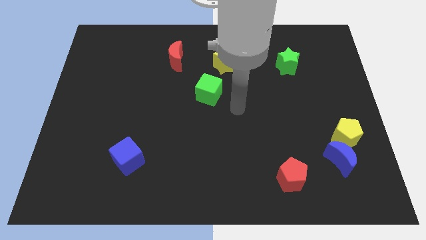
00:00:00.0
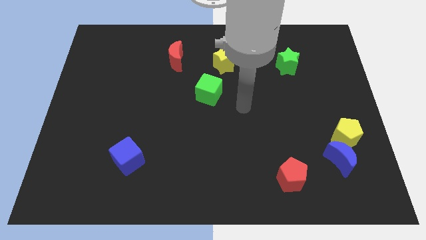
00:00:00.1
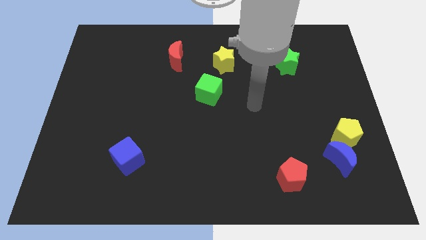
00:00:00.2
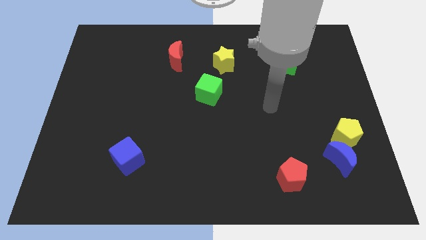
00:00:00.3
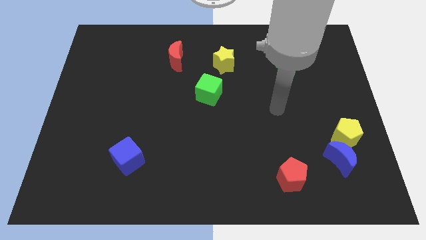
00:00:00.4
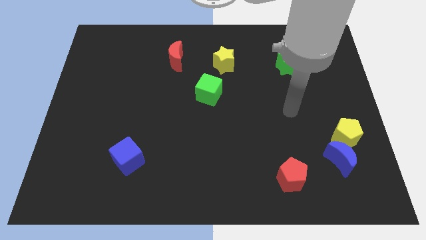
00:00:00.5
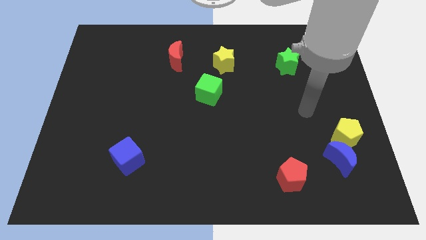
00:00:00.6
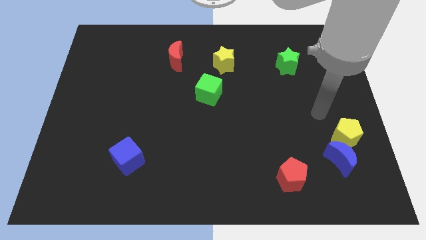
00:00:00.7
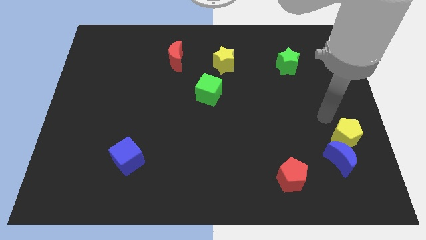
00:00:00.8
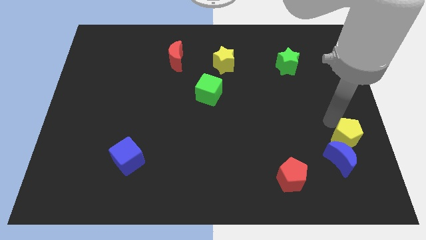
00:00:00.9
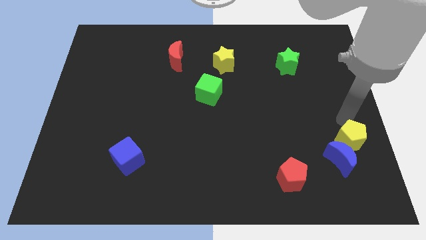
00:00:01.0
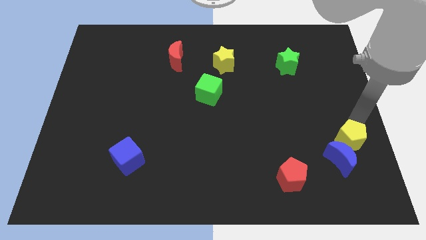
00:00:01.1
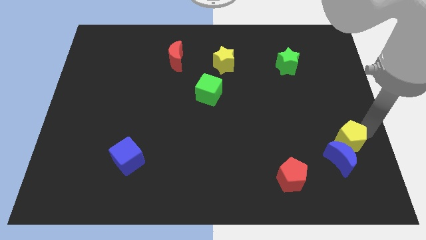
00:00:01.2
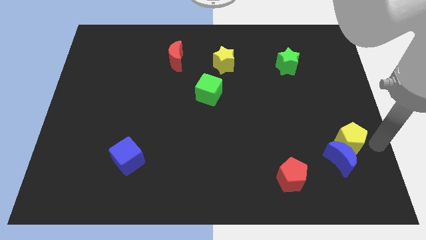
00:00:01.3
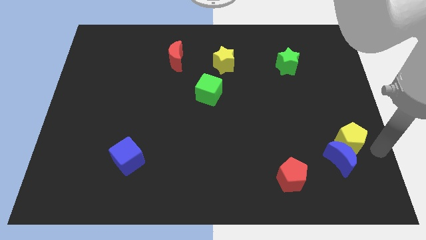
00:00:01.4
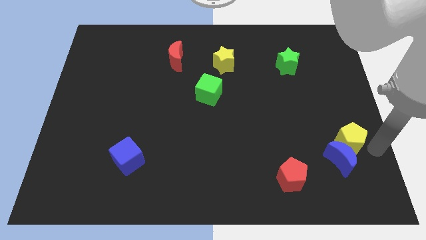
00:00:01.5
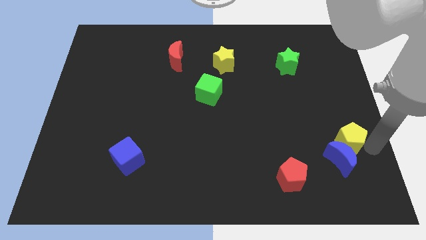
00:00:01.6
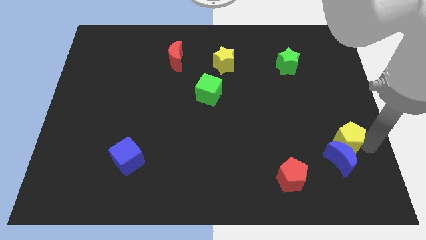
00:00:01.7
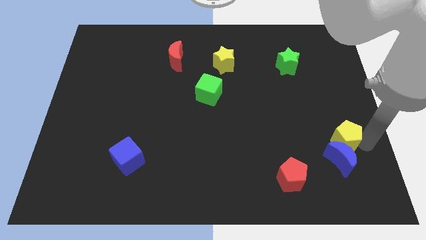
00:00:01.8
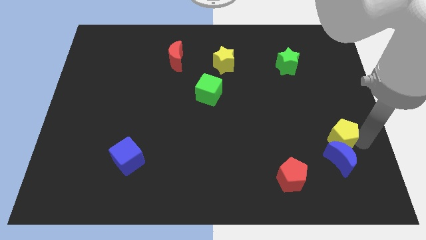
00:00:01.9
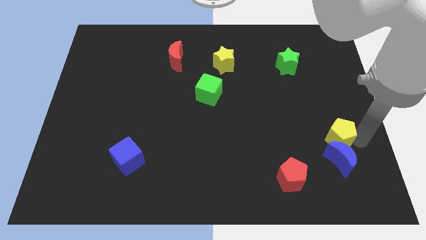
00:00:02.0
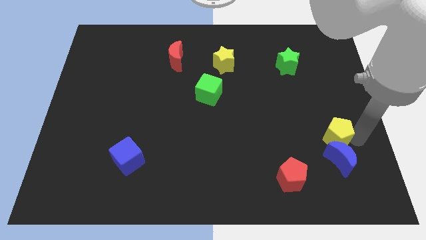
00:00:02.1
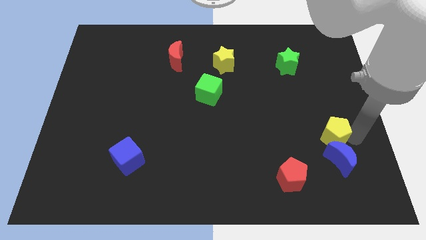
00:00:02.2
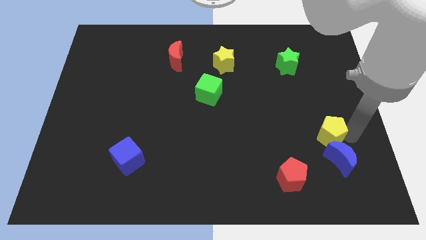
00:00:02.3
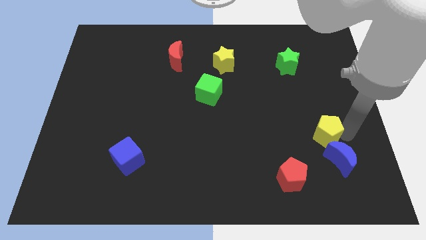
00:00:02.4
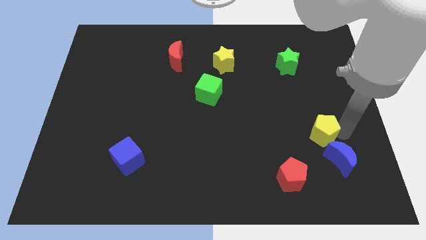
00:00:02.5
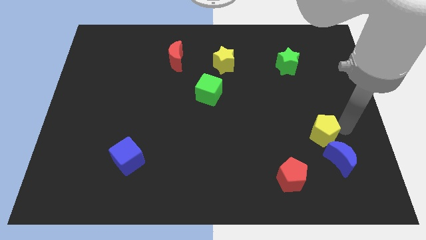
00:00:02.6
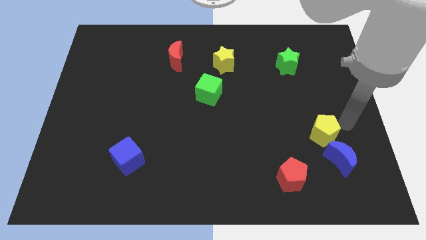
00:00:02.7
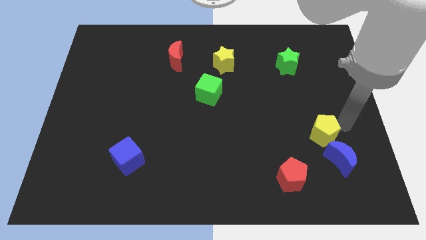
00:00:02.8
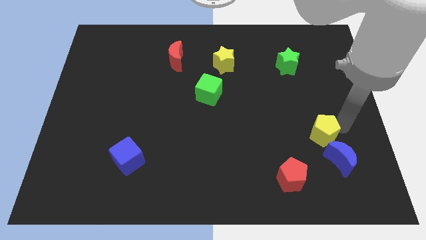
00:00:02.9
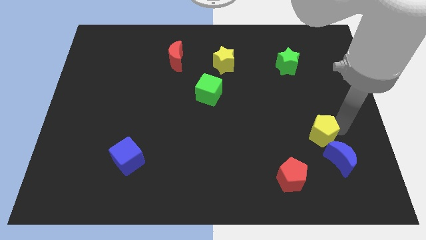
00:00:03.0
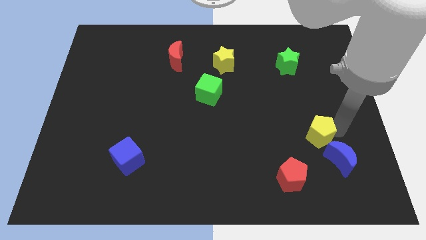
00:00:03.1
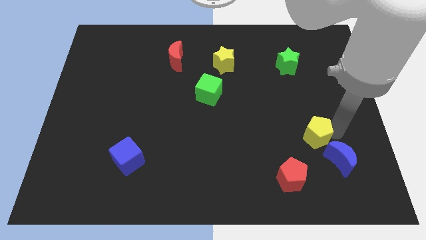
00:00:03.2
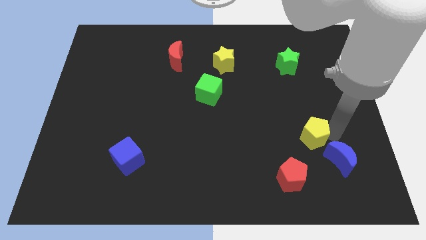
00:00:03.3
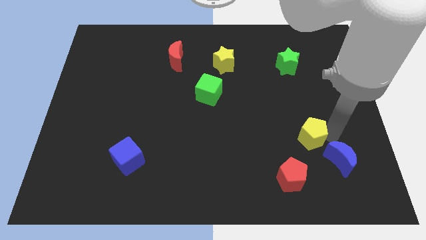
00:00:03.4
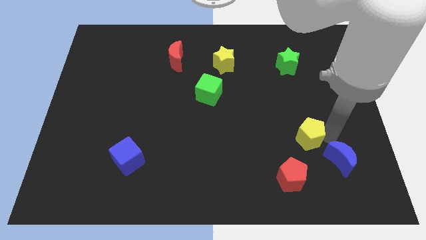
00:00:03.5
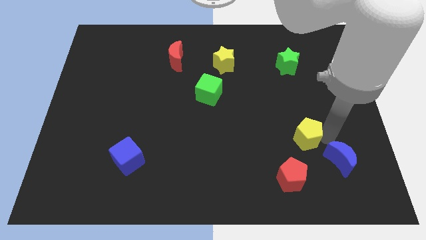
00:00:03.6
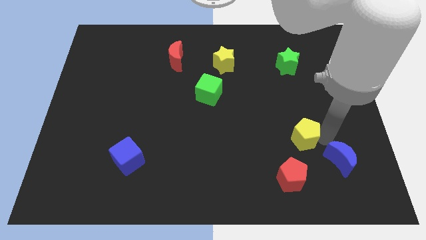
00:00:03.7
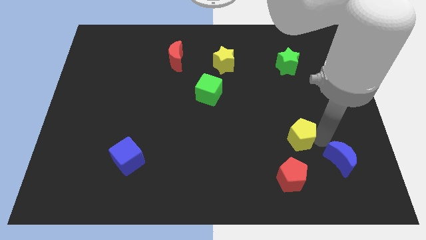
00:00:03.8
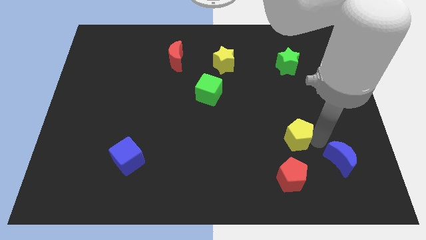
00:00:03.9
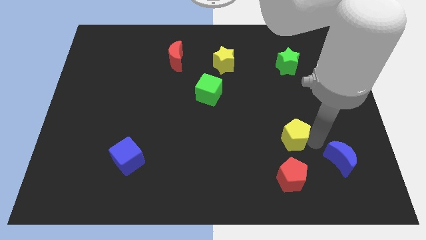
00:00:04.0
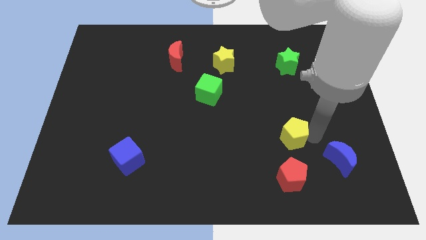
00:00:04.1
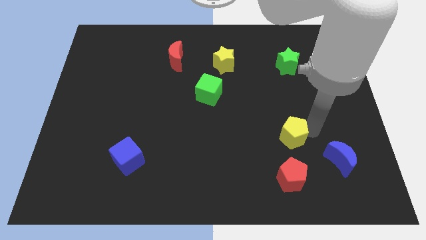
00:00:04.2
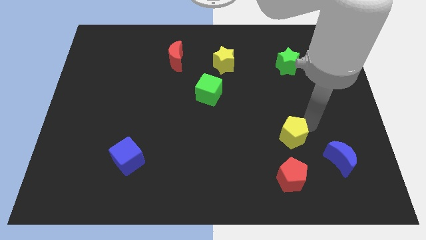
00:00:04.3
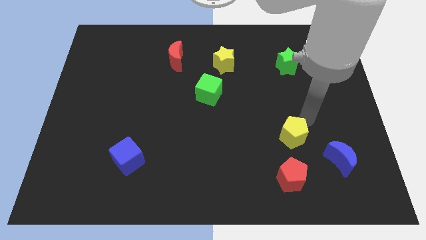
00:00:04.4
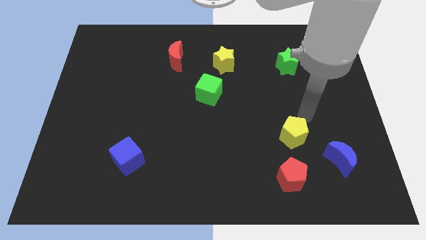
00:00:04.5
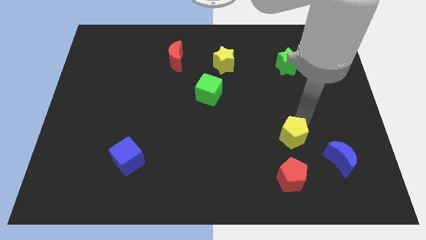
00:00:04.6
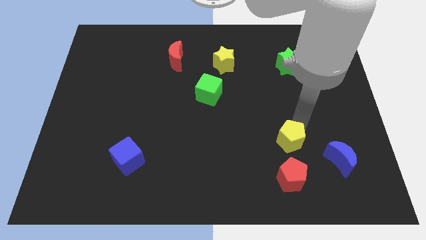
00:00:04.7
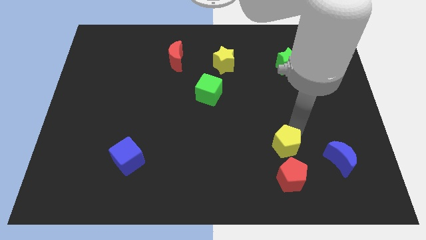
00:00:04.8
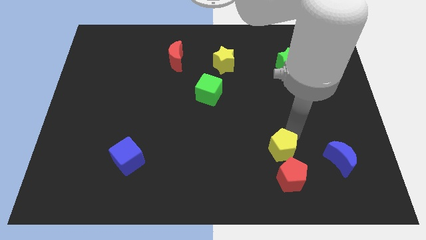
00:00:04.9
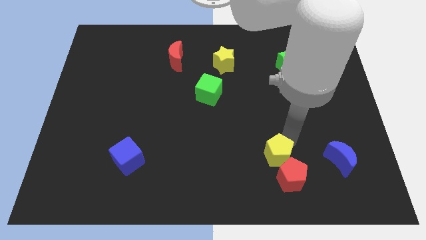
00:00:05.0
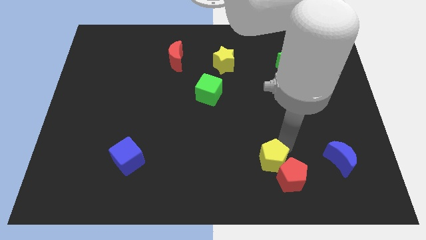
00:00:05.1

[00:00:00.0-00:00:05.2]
push the yellow pentagon to the left side of the red pentagon

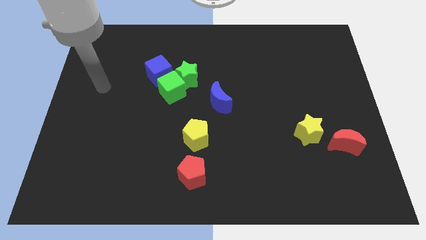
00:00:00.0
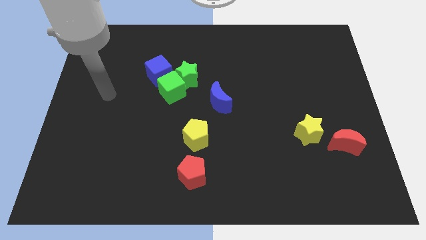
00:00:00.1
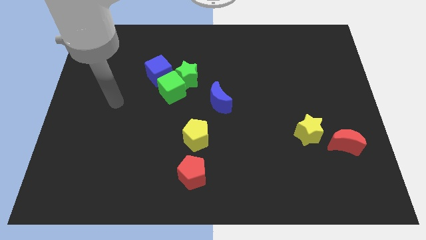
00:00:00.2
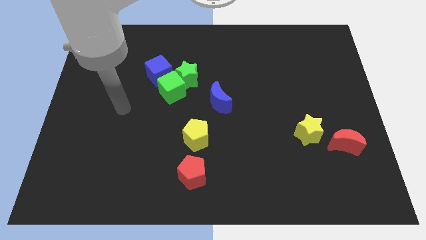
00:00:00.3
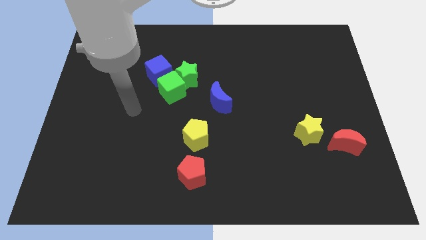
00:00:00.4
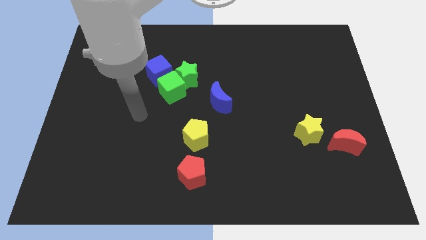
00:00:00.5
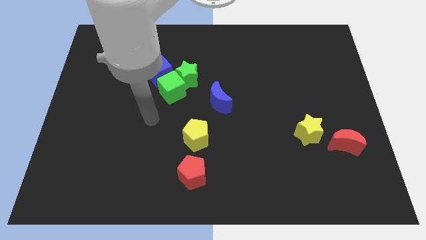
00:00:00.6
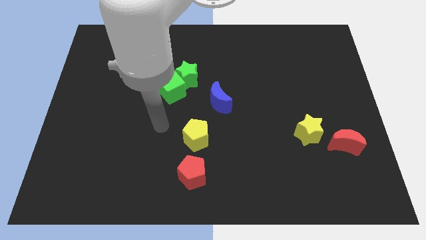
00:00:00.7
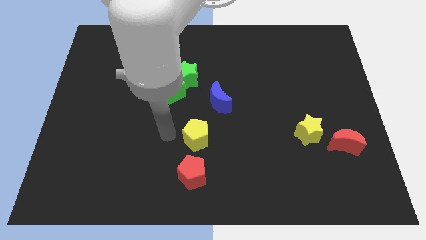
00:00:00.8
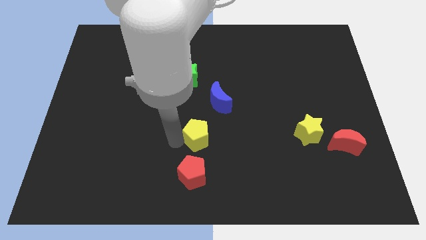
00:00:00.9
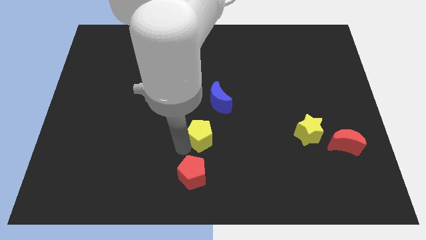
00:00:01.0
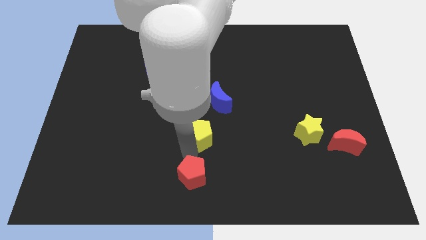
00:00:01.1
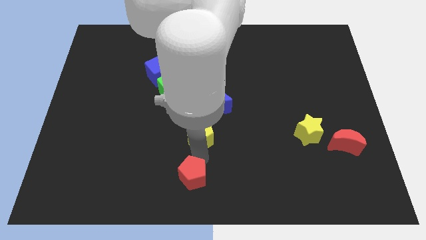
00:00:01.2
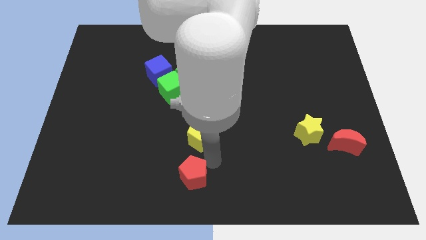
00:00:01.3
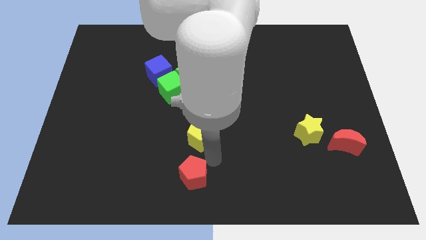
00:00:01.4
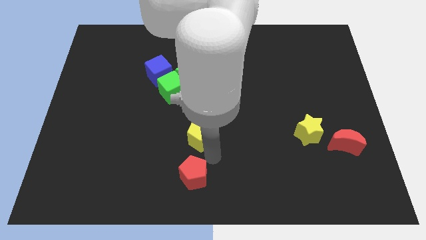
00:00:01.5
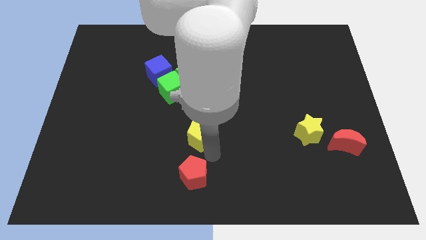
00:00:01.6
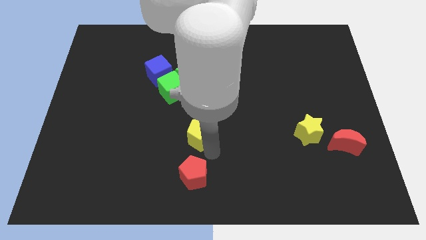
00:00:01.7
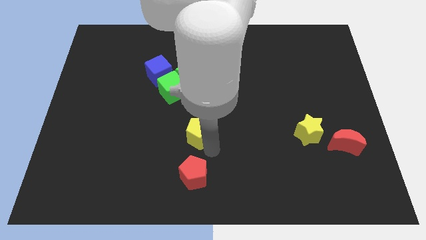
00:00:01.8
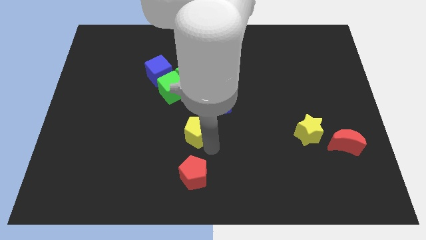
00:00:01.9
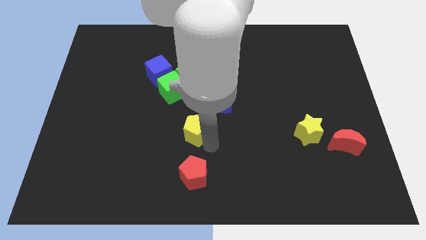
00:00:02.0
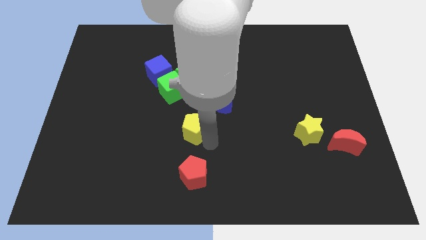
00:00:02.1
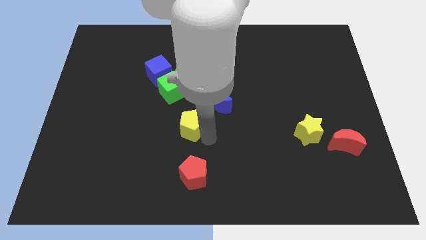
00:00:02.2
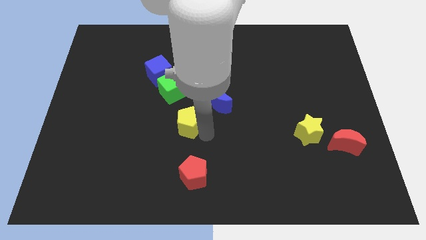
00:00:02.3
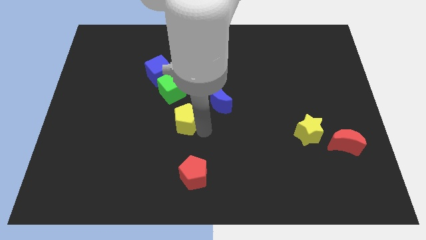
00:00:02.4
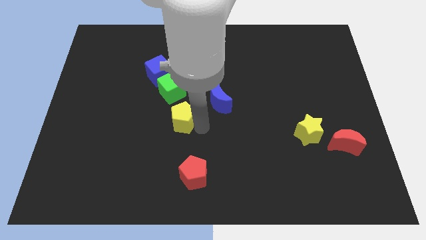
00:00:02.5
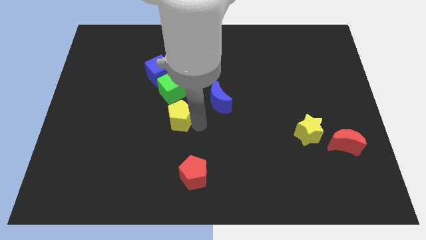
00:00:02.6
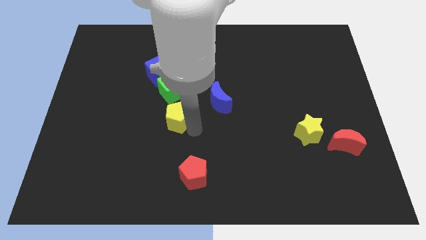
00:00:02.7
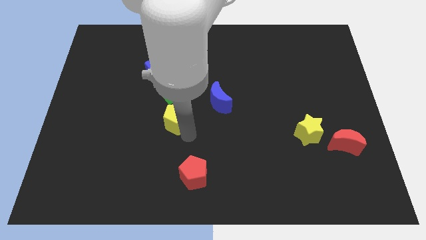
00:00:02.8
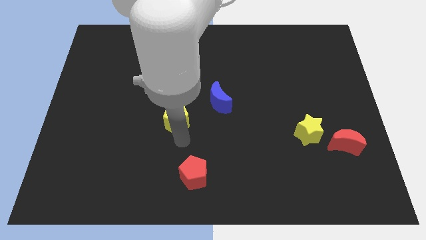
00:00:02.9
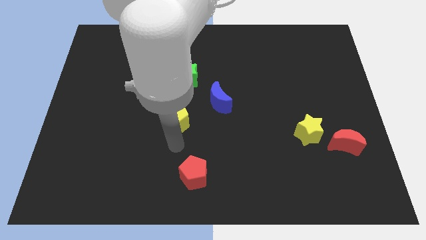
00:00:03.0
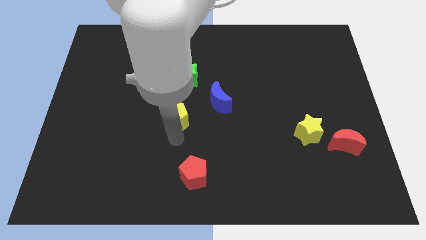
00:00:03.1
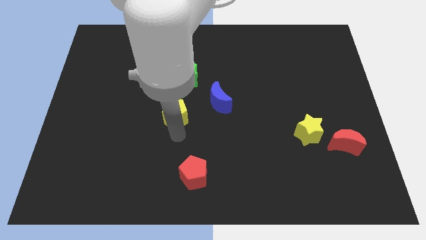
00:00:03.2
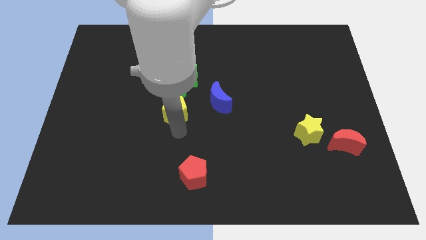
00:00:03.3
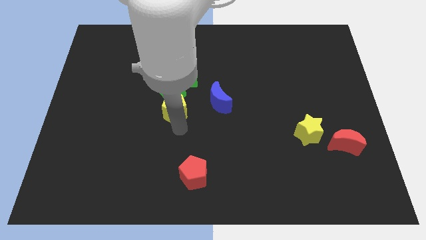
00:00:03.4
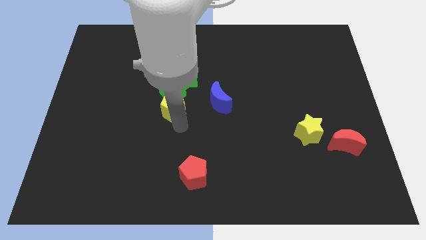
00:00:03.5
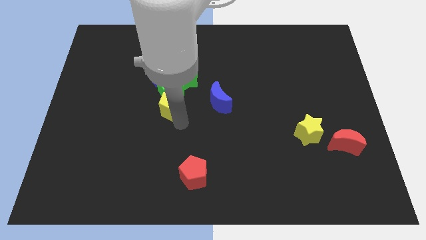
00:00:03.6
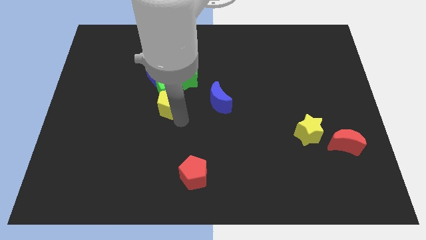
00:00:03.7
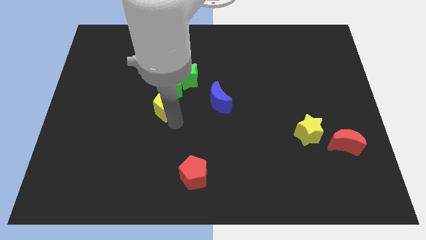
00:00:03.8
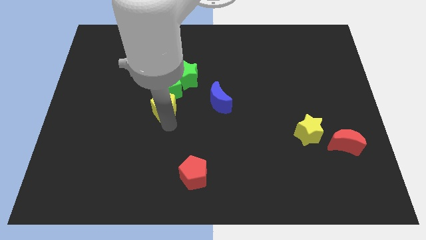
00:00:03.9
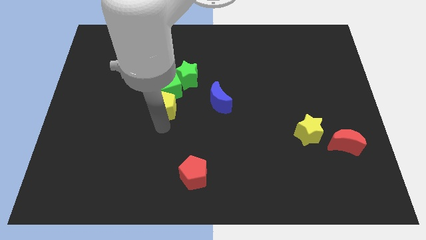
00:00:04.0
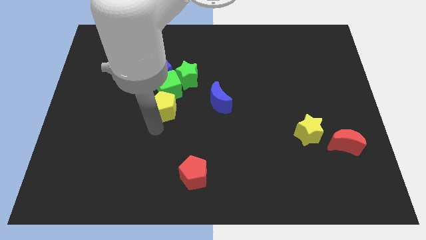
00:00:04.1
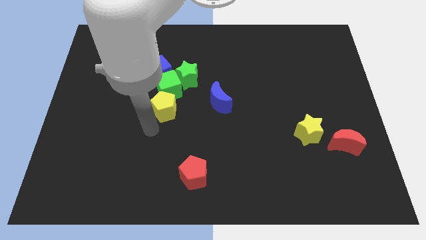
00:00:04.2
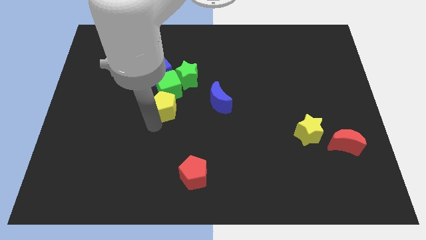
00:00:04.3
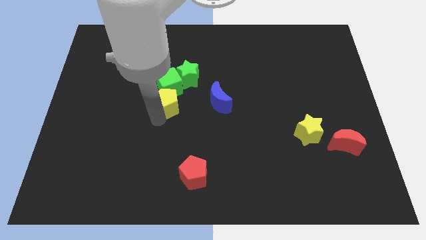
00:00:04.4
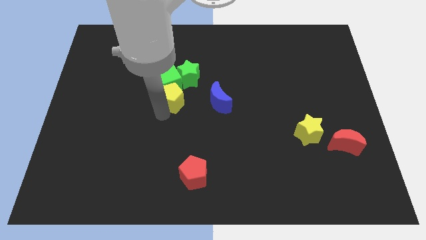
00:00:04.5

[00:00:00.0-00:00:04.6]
slide the yellow pentagon diagonally down and to the right of the blue cube
